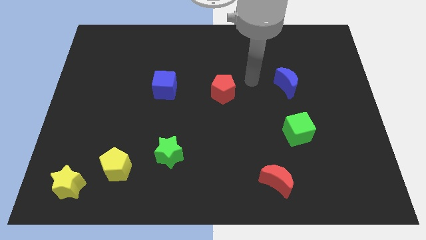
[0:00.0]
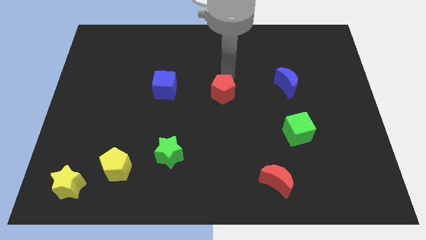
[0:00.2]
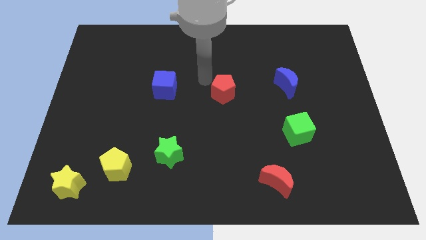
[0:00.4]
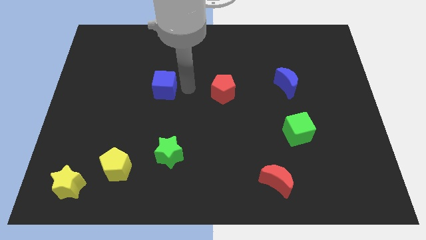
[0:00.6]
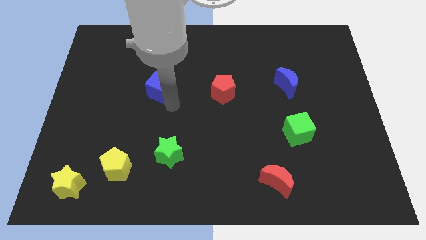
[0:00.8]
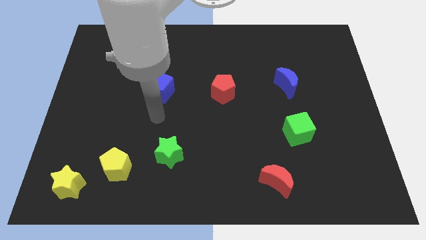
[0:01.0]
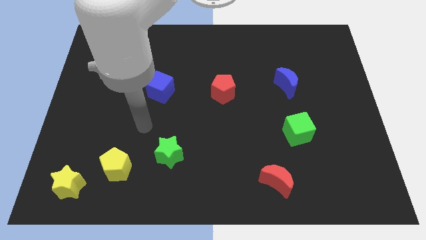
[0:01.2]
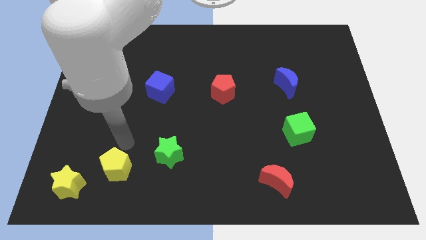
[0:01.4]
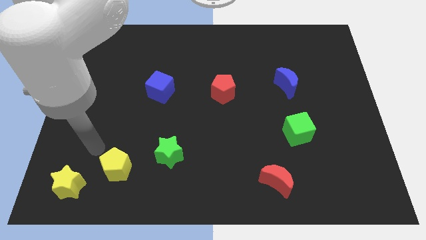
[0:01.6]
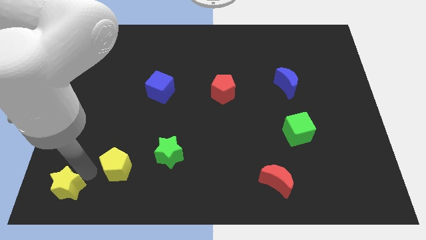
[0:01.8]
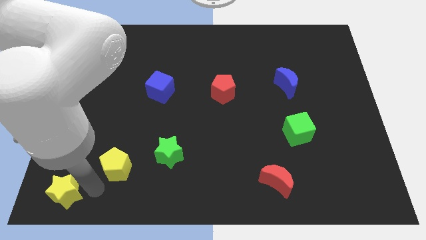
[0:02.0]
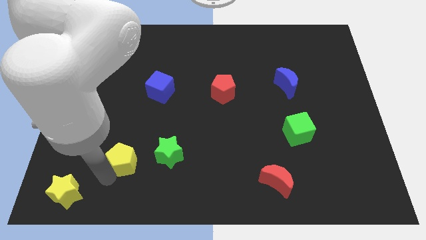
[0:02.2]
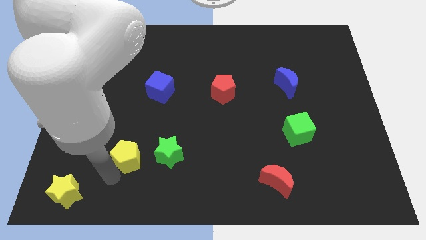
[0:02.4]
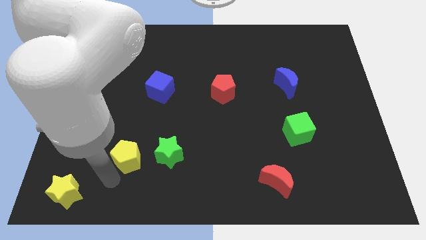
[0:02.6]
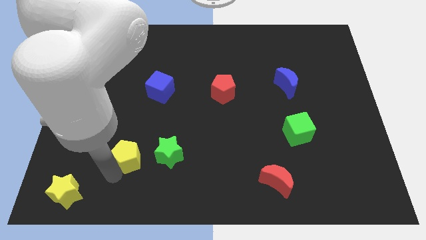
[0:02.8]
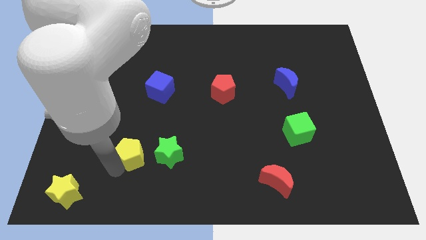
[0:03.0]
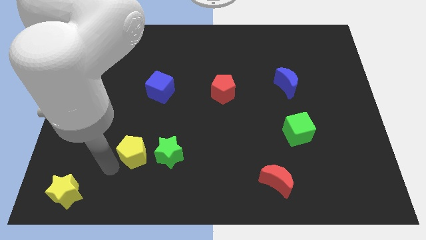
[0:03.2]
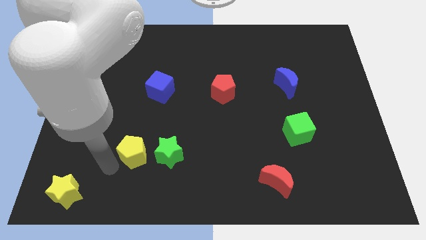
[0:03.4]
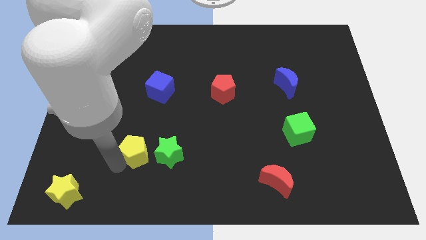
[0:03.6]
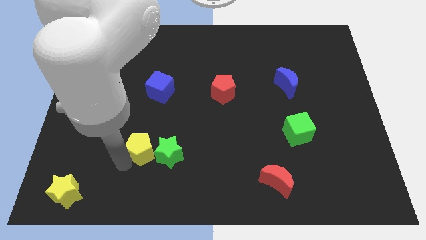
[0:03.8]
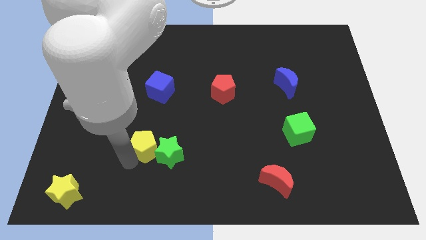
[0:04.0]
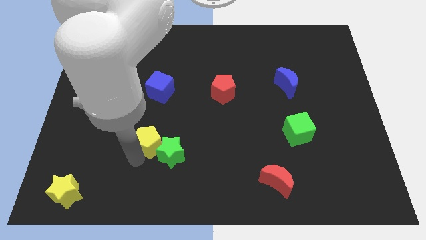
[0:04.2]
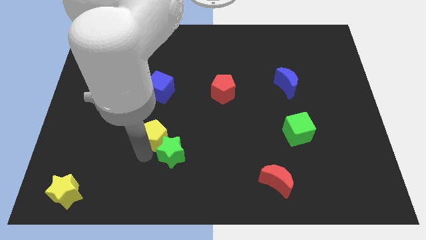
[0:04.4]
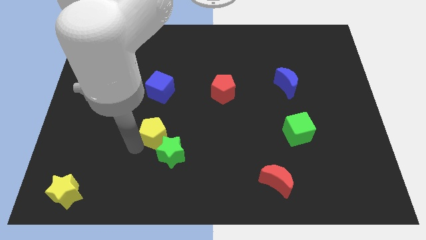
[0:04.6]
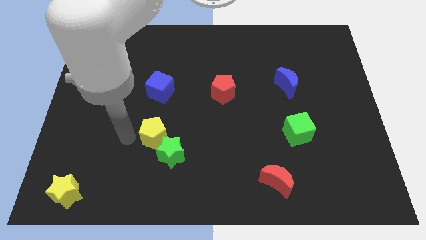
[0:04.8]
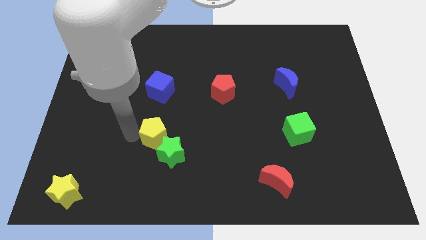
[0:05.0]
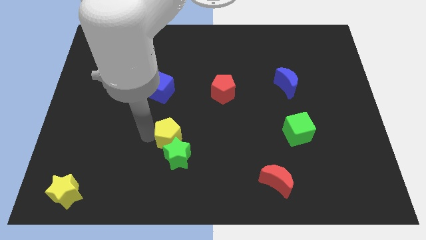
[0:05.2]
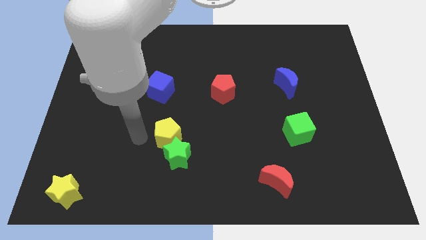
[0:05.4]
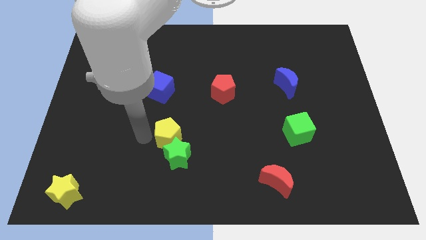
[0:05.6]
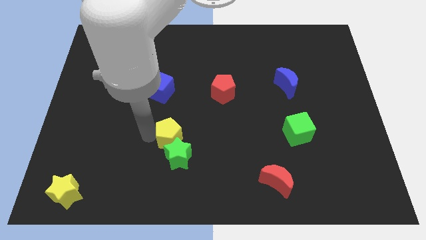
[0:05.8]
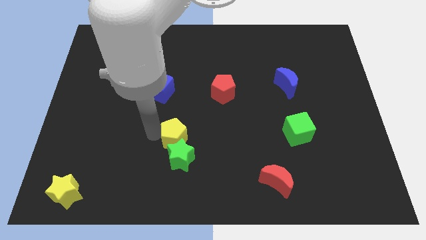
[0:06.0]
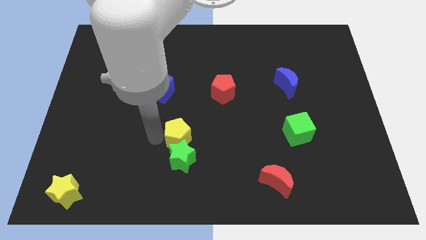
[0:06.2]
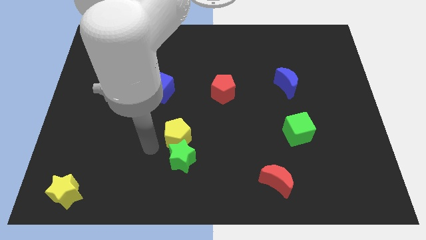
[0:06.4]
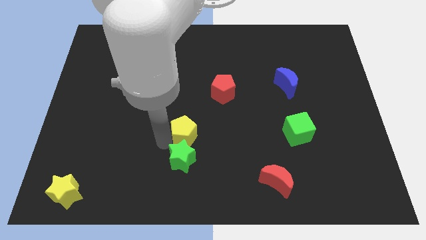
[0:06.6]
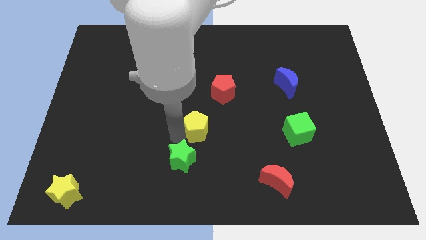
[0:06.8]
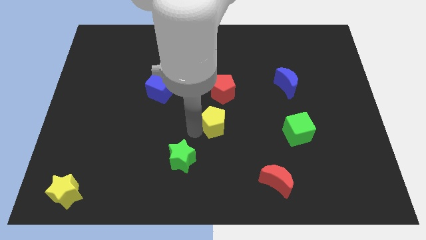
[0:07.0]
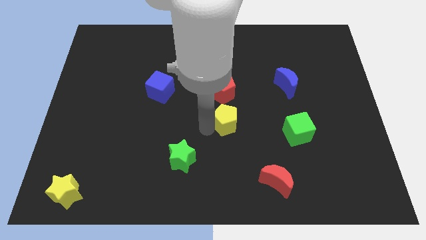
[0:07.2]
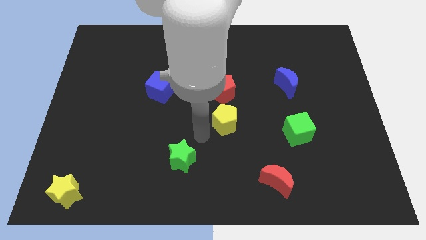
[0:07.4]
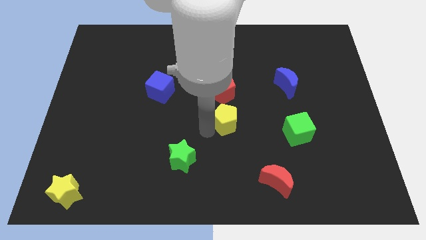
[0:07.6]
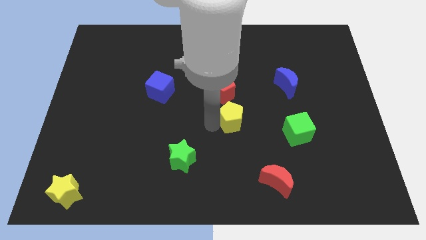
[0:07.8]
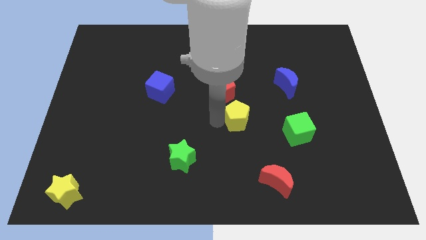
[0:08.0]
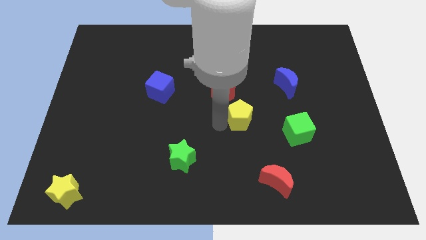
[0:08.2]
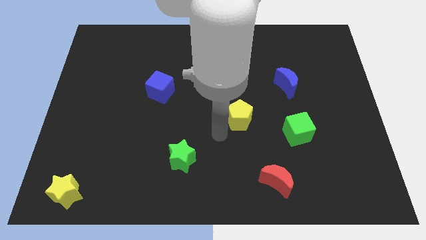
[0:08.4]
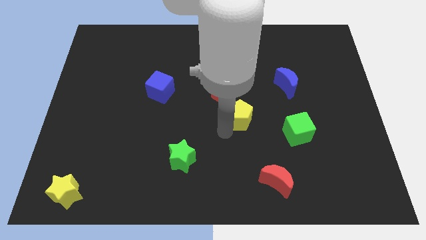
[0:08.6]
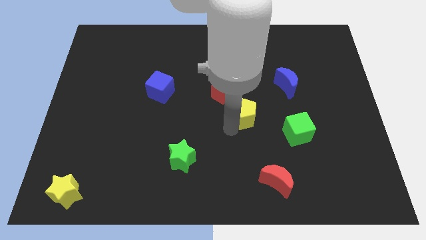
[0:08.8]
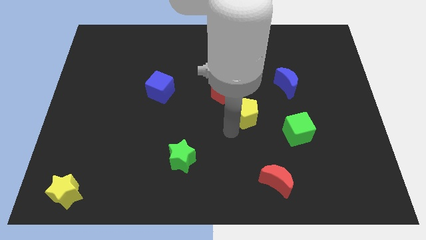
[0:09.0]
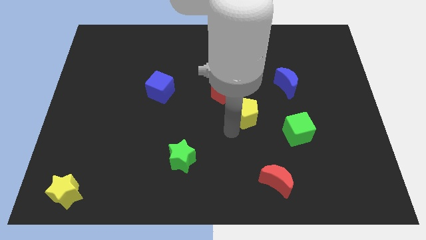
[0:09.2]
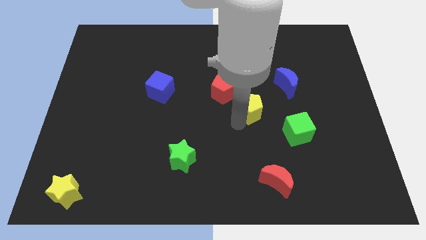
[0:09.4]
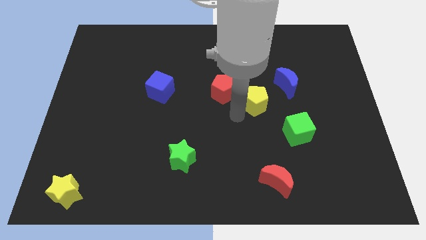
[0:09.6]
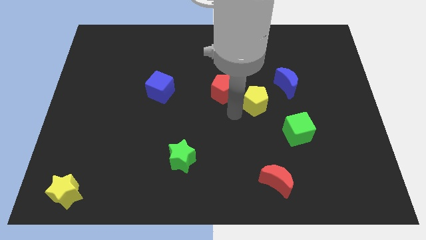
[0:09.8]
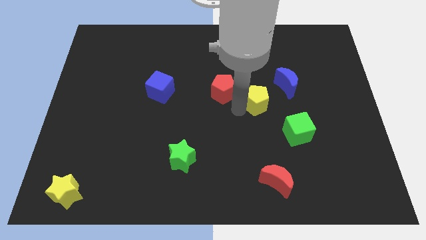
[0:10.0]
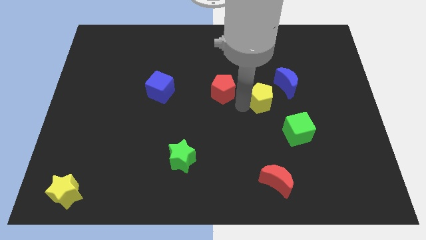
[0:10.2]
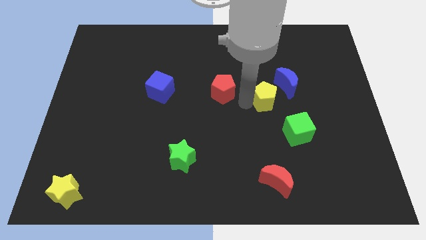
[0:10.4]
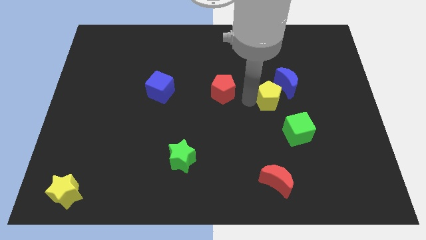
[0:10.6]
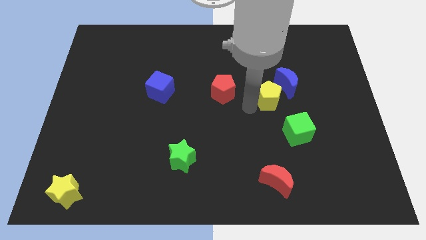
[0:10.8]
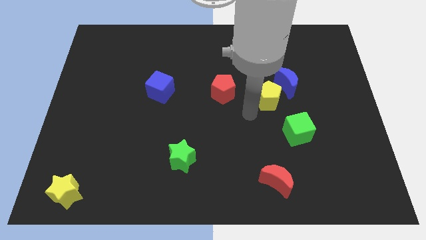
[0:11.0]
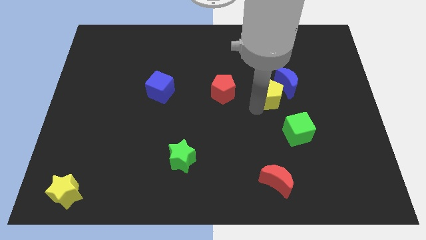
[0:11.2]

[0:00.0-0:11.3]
push the yellow pentagon towards the blue moon

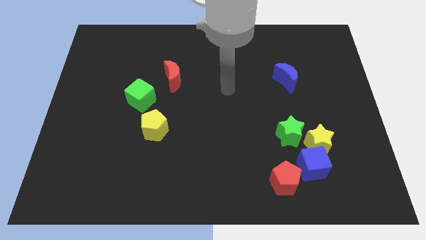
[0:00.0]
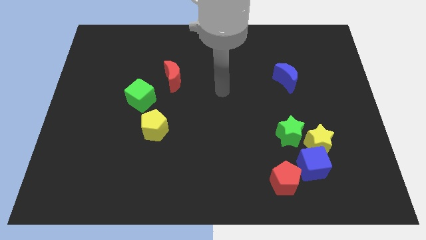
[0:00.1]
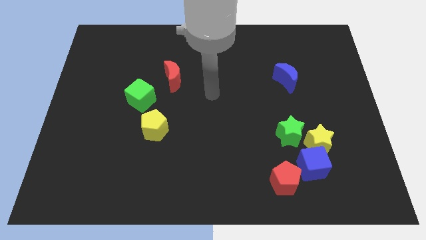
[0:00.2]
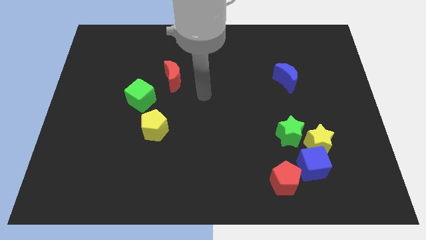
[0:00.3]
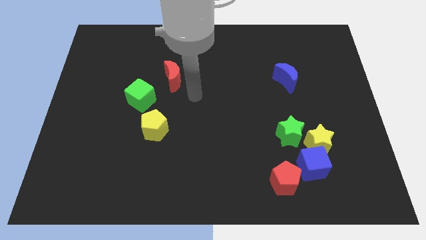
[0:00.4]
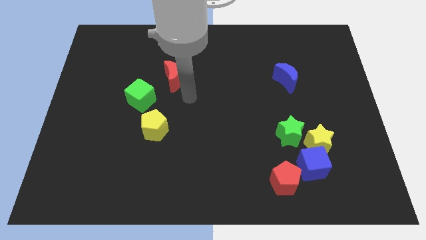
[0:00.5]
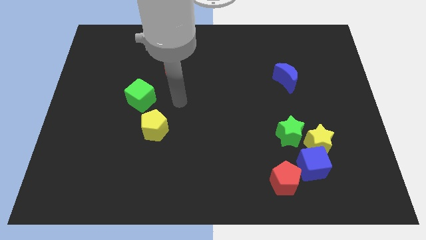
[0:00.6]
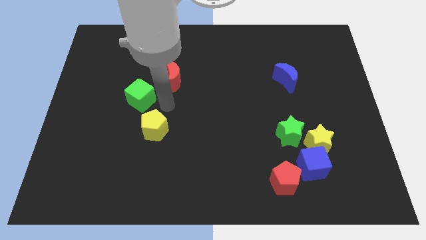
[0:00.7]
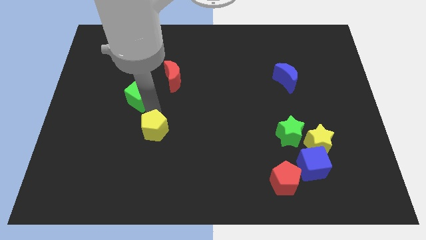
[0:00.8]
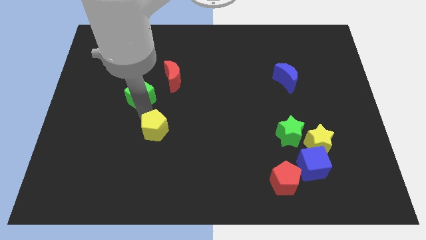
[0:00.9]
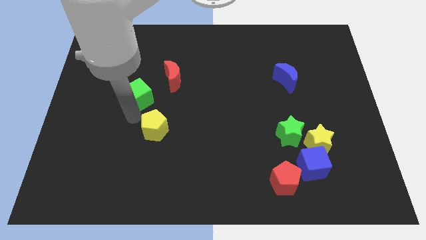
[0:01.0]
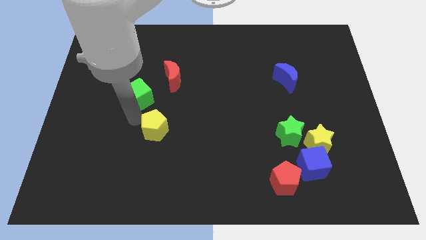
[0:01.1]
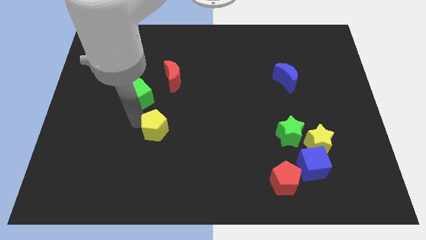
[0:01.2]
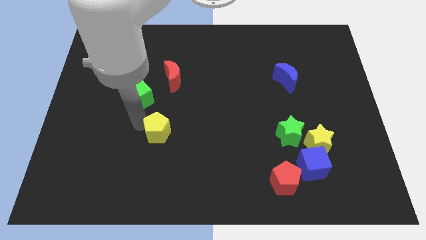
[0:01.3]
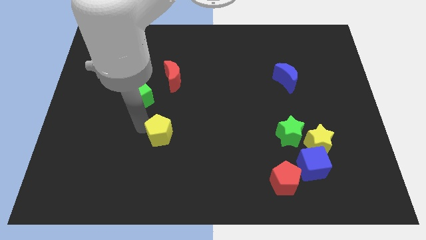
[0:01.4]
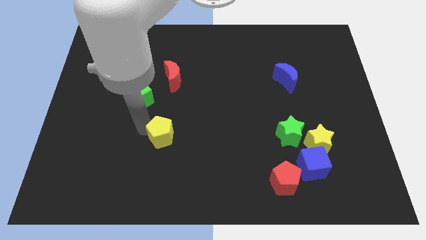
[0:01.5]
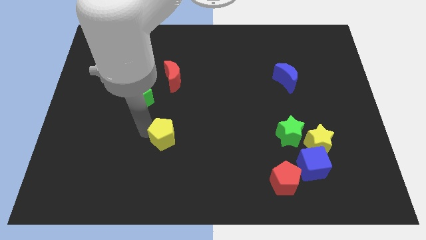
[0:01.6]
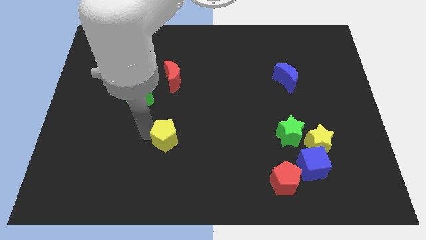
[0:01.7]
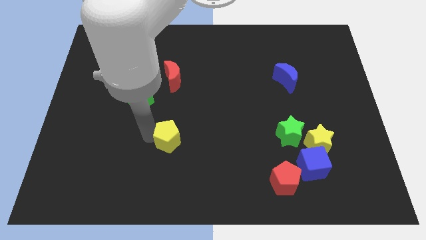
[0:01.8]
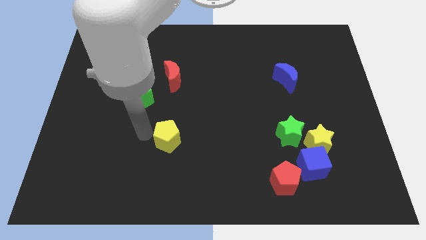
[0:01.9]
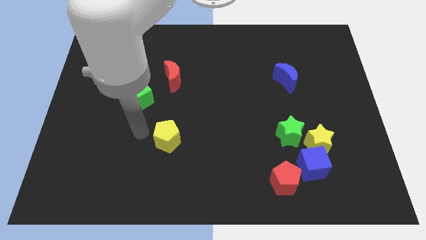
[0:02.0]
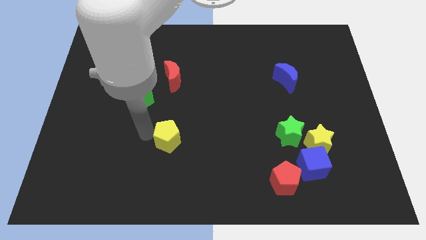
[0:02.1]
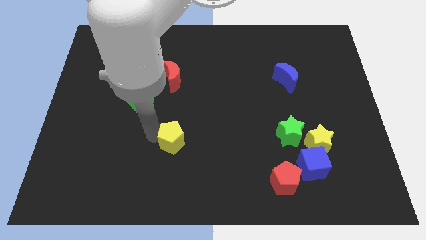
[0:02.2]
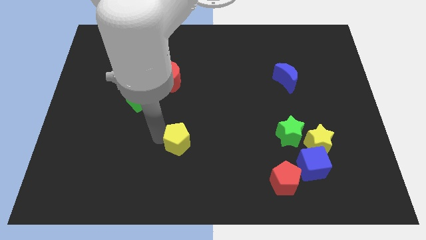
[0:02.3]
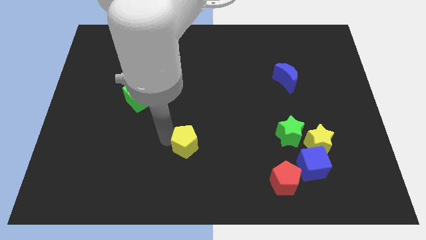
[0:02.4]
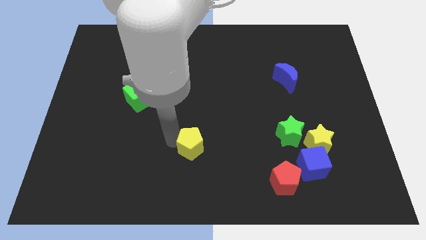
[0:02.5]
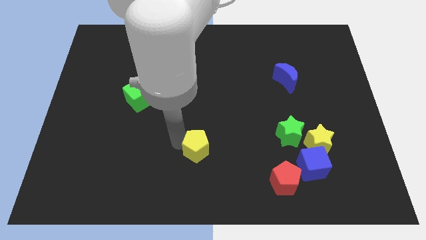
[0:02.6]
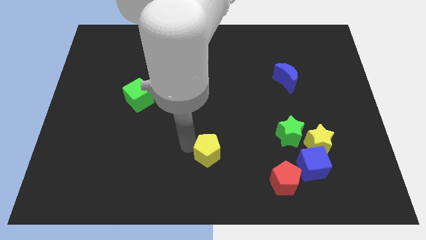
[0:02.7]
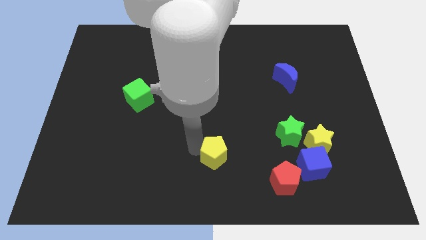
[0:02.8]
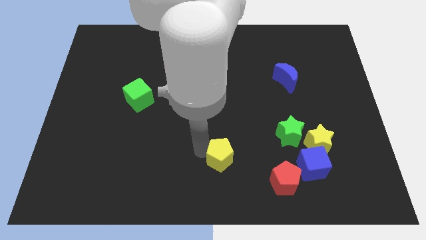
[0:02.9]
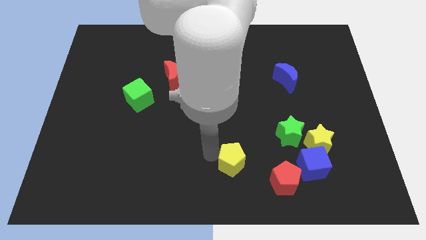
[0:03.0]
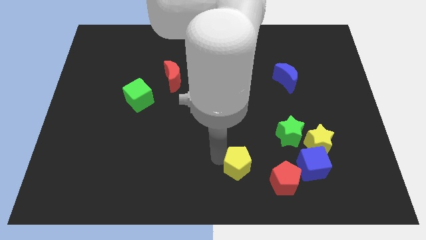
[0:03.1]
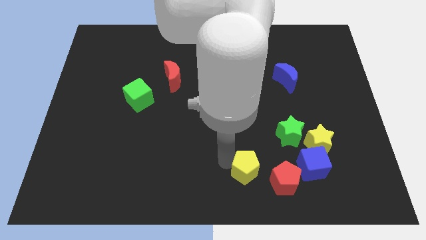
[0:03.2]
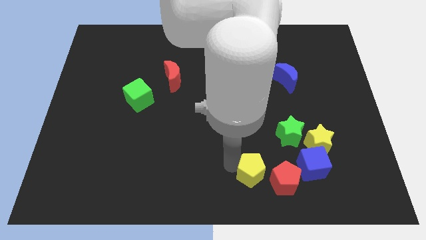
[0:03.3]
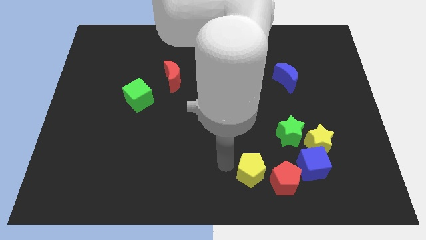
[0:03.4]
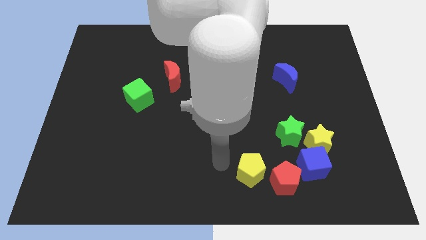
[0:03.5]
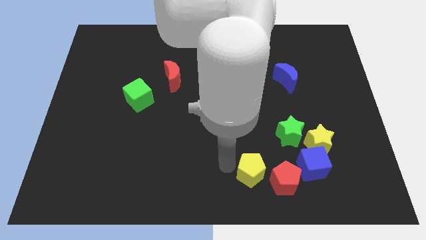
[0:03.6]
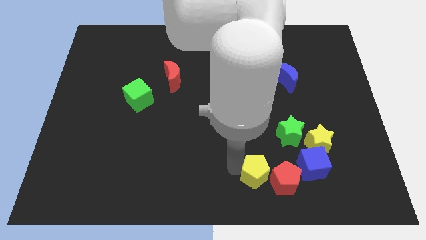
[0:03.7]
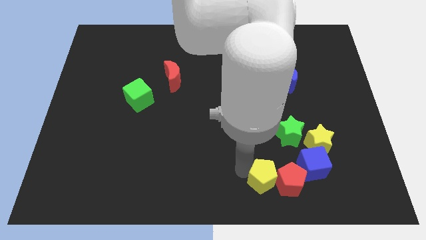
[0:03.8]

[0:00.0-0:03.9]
put the yellow pentagon towards the red pentagon
